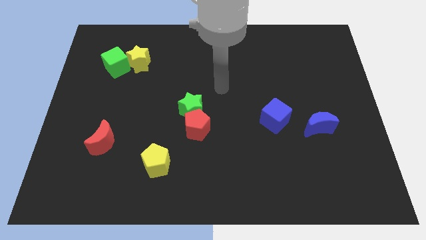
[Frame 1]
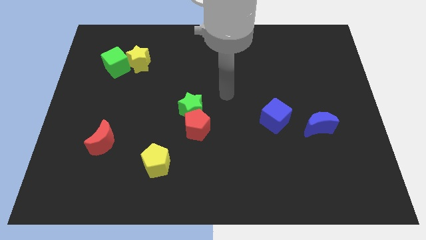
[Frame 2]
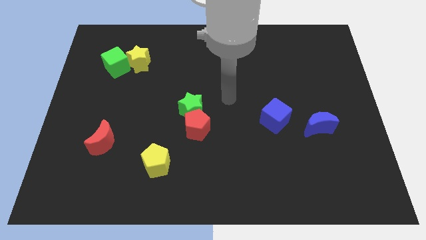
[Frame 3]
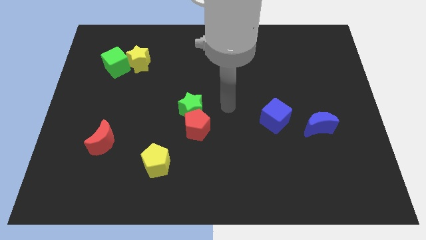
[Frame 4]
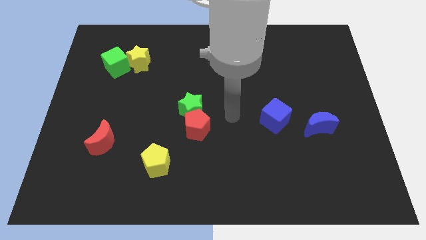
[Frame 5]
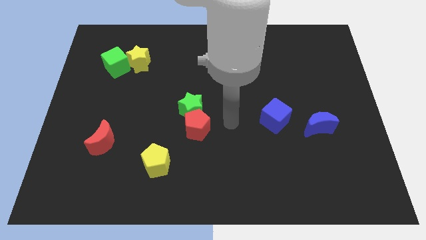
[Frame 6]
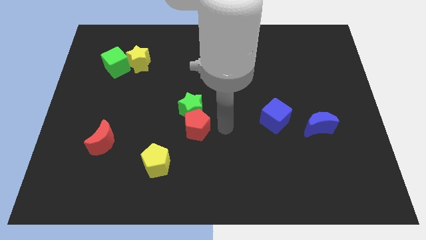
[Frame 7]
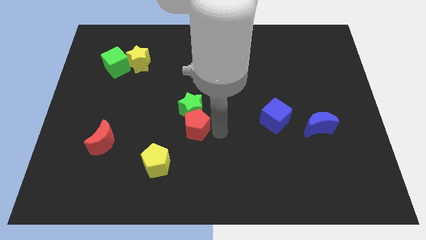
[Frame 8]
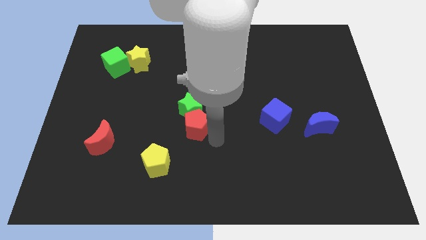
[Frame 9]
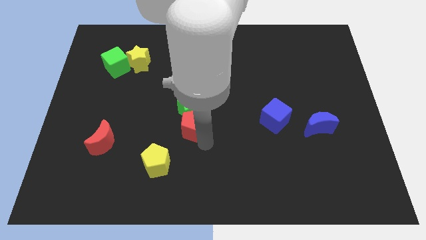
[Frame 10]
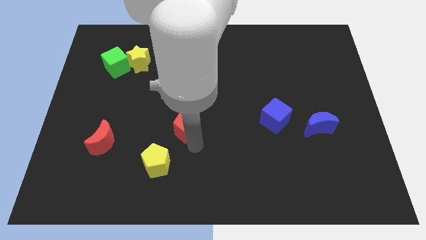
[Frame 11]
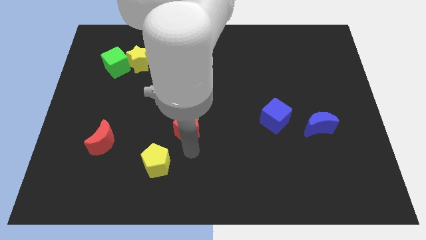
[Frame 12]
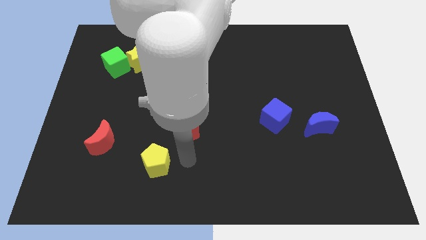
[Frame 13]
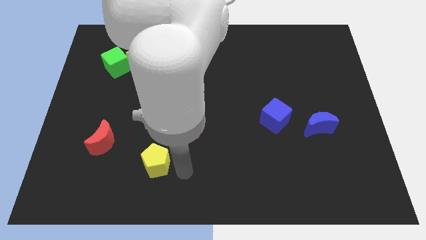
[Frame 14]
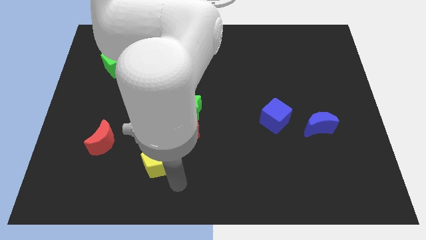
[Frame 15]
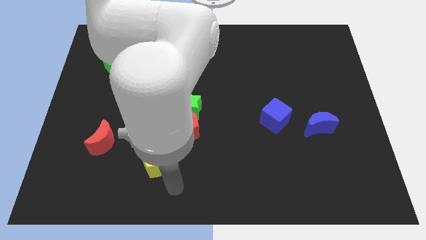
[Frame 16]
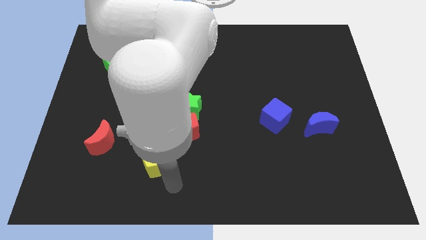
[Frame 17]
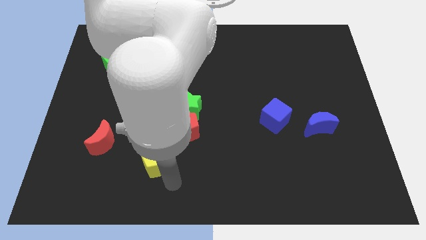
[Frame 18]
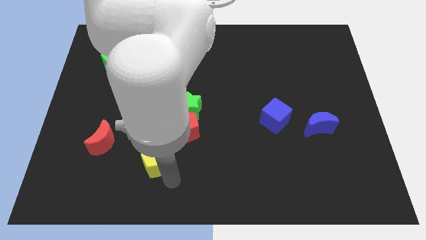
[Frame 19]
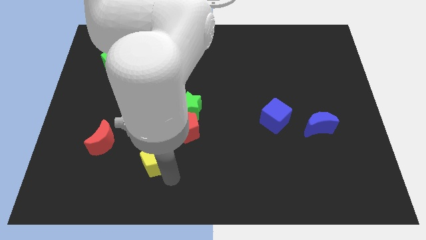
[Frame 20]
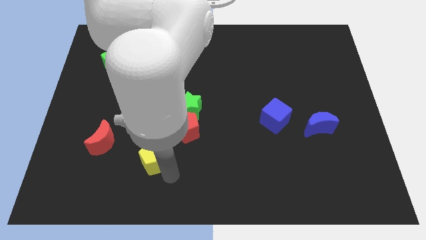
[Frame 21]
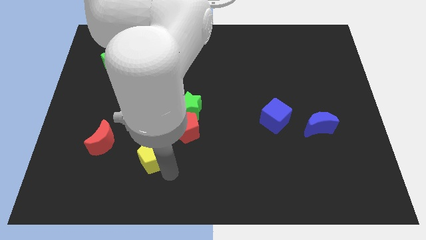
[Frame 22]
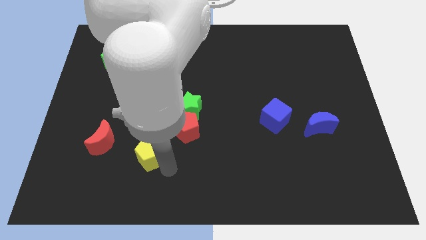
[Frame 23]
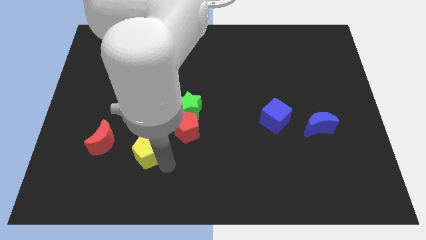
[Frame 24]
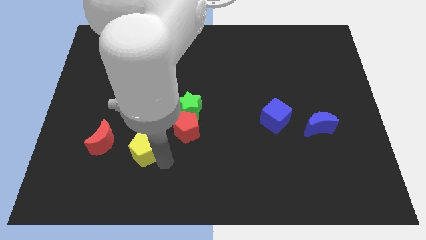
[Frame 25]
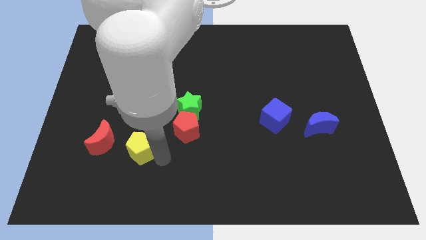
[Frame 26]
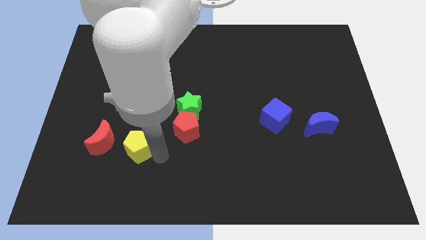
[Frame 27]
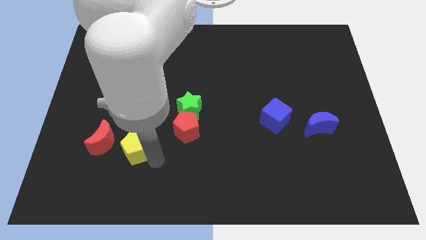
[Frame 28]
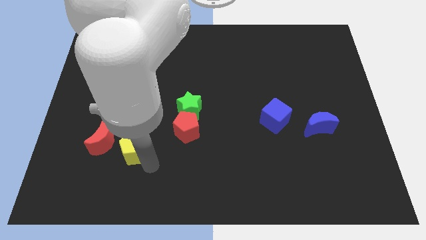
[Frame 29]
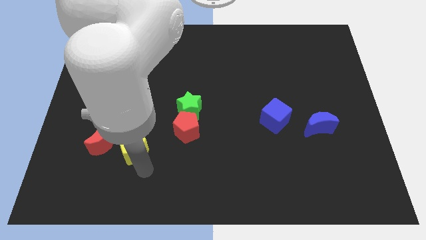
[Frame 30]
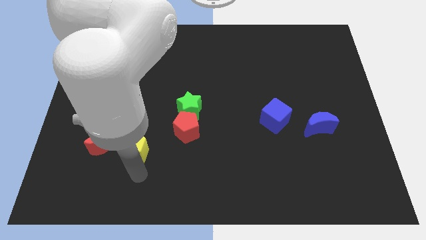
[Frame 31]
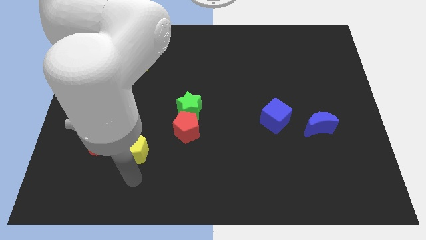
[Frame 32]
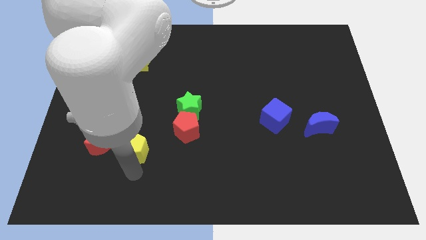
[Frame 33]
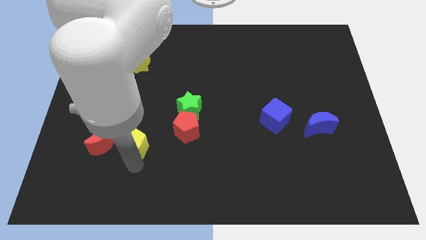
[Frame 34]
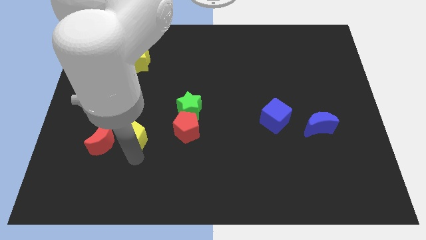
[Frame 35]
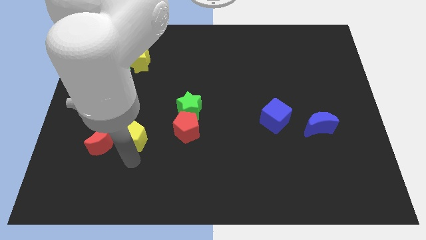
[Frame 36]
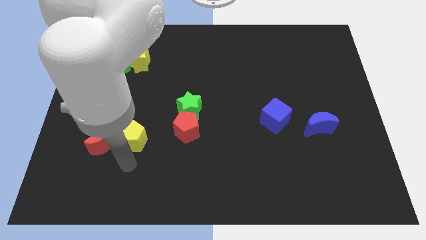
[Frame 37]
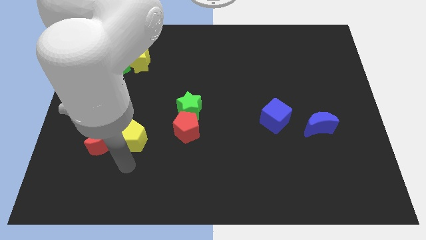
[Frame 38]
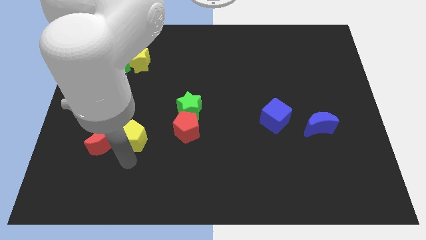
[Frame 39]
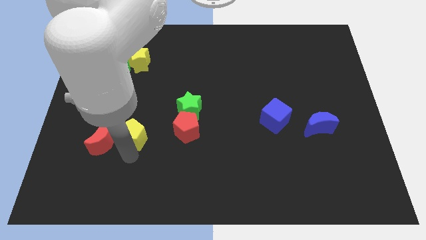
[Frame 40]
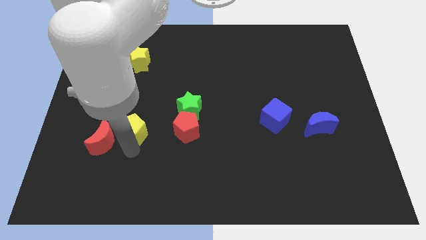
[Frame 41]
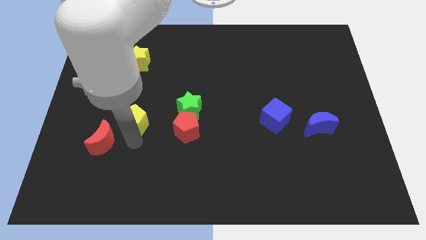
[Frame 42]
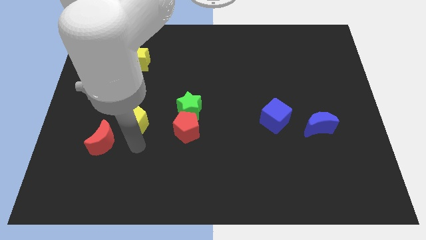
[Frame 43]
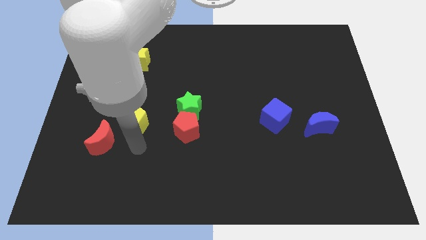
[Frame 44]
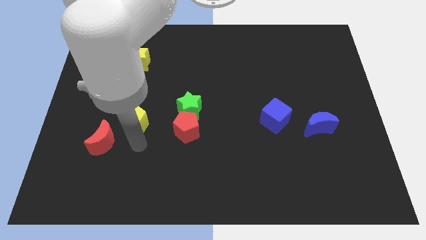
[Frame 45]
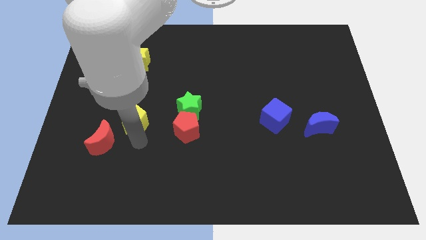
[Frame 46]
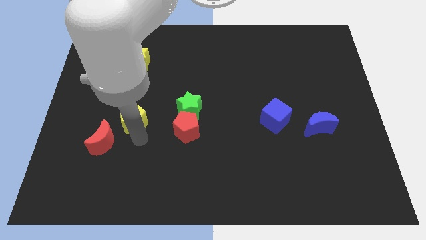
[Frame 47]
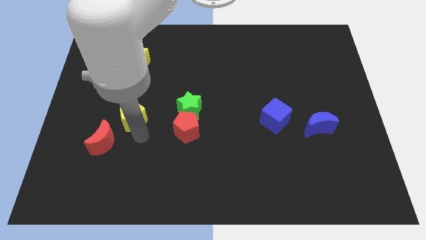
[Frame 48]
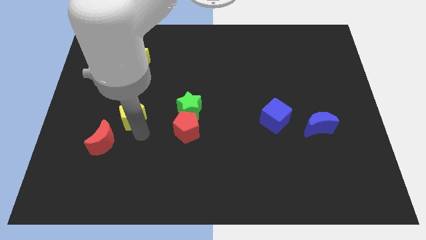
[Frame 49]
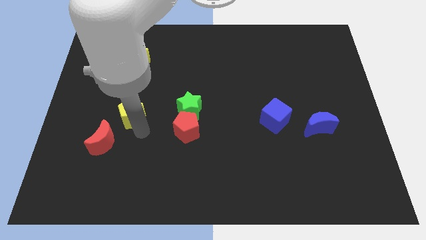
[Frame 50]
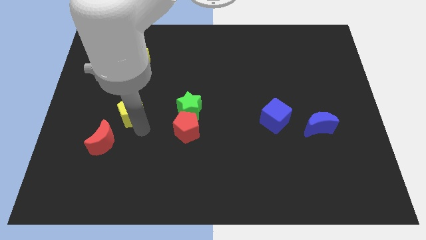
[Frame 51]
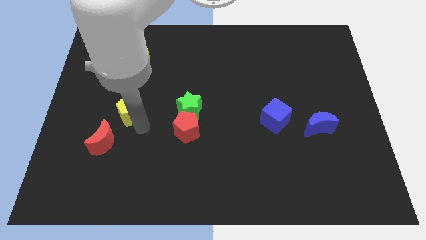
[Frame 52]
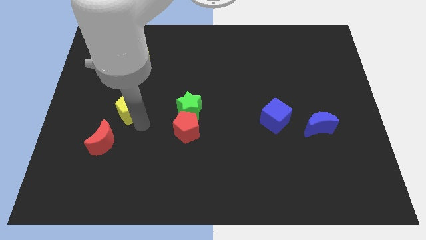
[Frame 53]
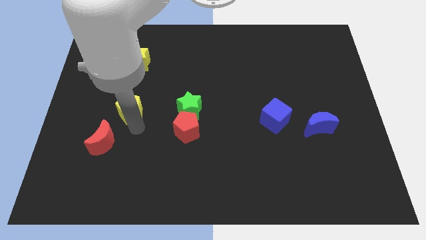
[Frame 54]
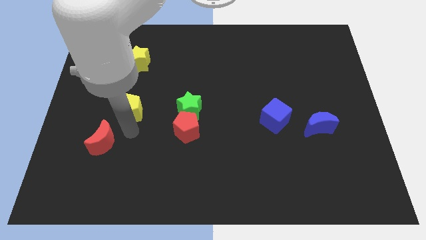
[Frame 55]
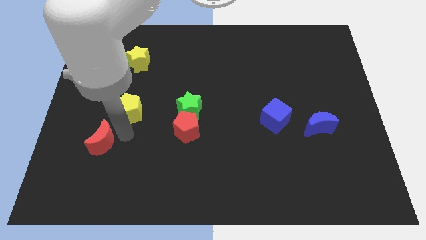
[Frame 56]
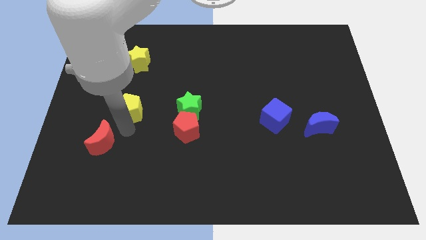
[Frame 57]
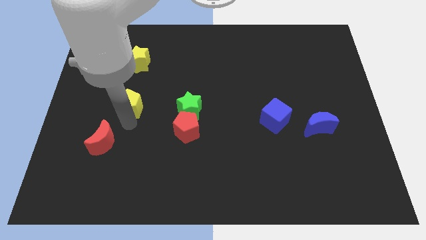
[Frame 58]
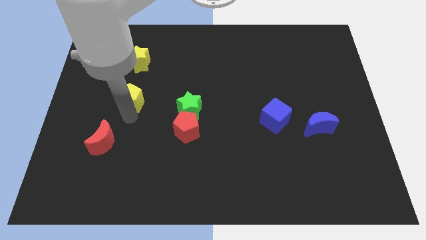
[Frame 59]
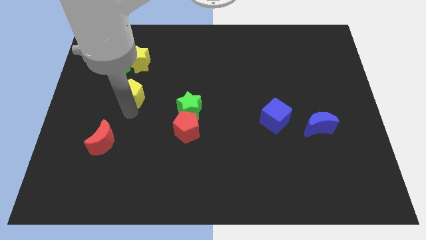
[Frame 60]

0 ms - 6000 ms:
put the yellow pentagon diagonally down and to the right of the green cube

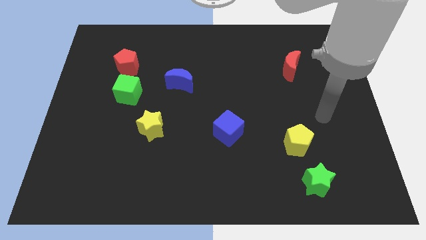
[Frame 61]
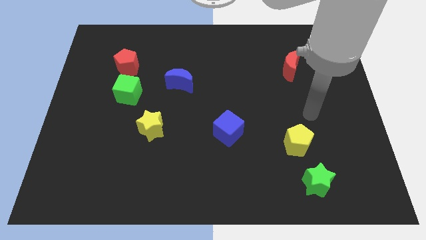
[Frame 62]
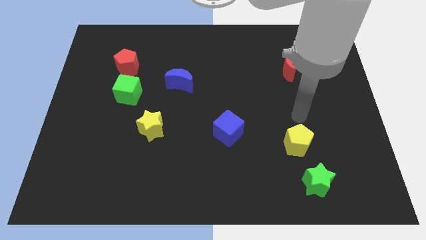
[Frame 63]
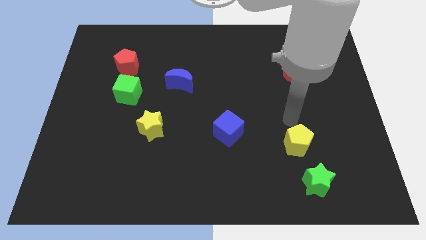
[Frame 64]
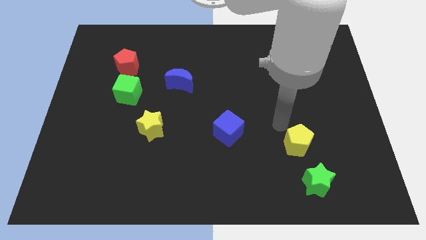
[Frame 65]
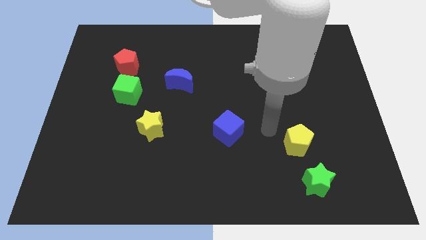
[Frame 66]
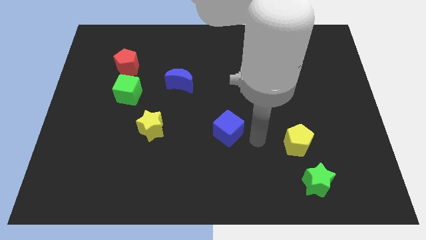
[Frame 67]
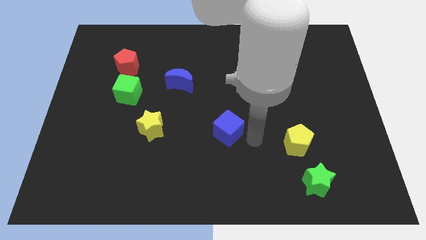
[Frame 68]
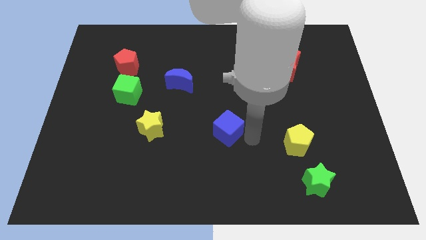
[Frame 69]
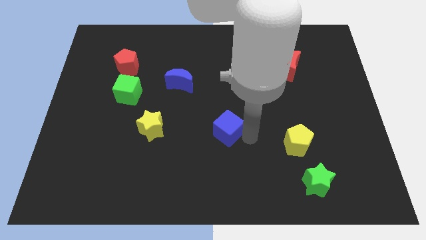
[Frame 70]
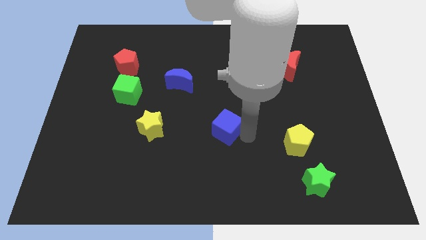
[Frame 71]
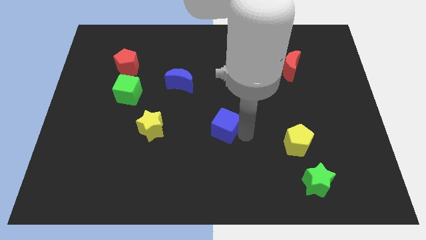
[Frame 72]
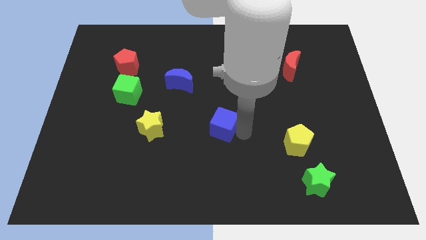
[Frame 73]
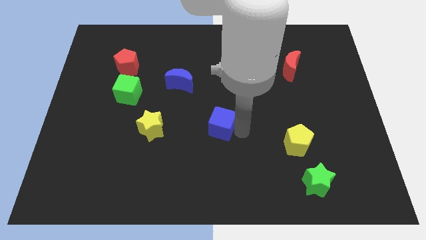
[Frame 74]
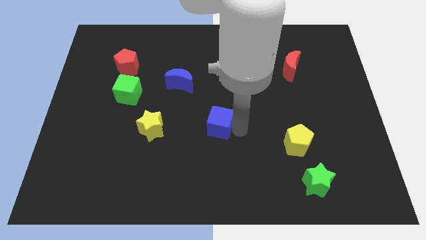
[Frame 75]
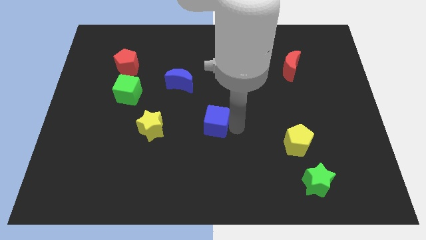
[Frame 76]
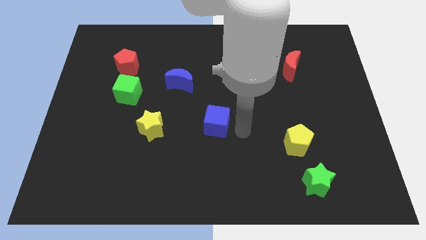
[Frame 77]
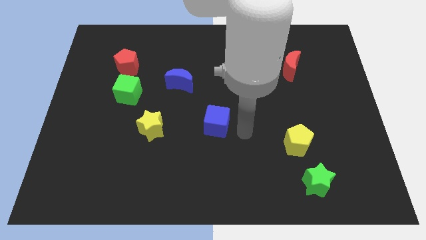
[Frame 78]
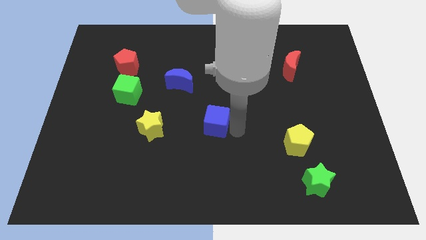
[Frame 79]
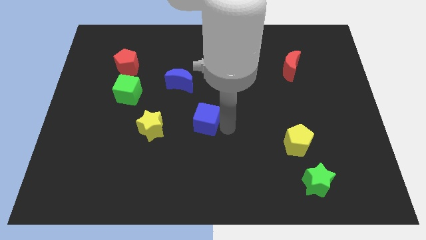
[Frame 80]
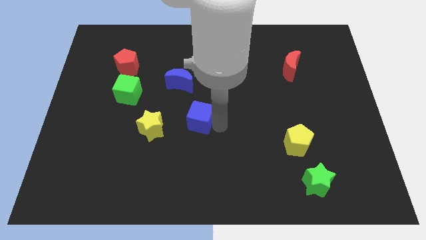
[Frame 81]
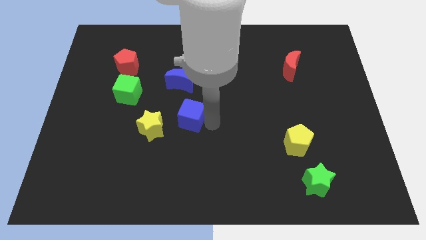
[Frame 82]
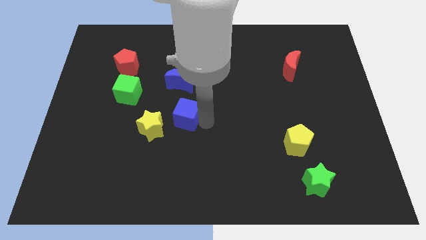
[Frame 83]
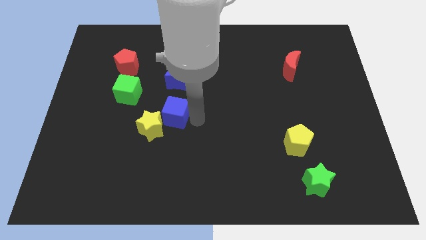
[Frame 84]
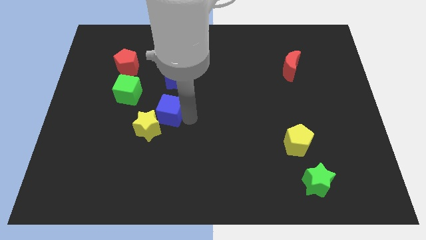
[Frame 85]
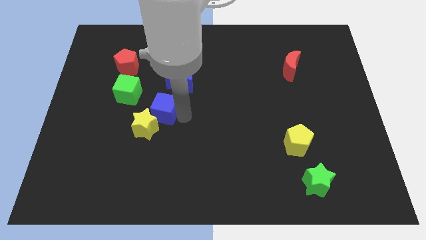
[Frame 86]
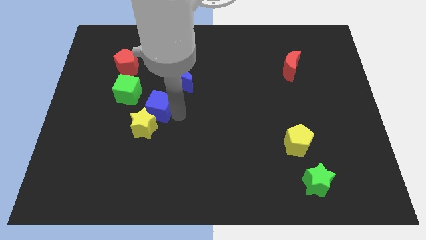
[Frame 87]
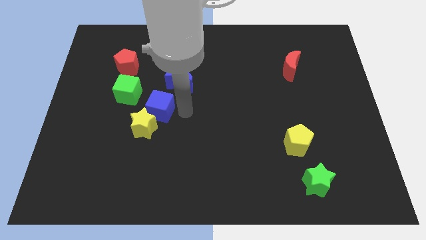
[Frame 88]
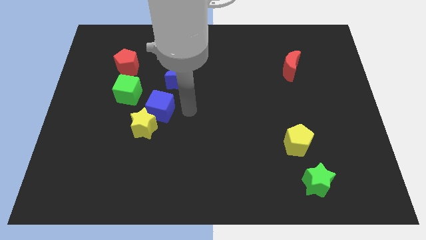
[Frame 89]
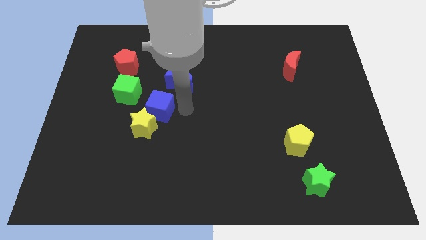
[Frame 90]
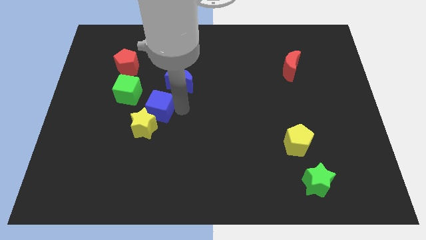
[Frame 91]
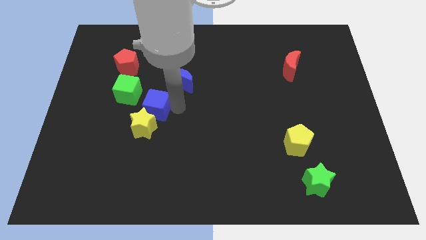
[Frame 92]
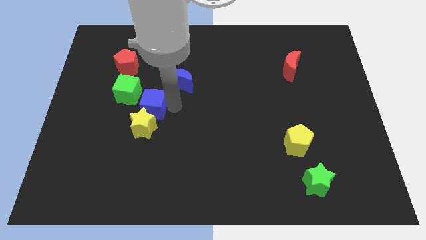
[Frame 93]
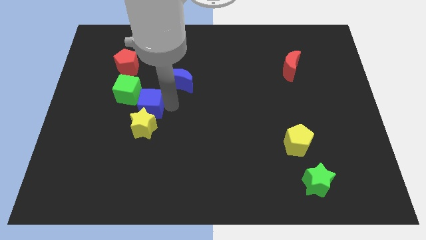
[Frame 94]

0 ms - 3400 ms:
move the blue cube diagonally up and to the left of the yellow star
